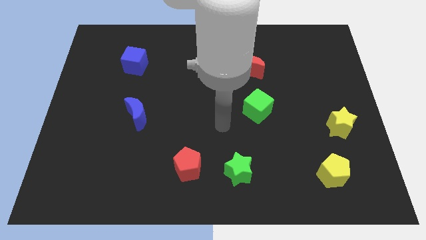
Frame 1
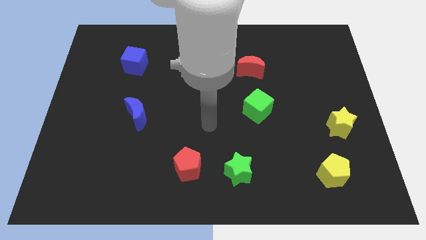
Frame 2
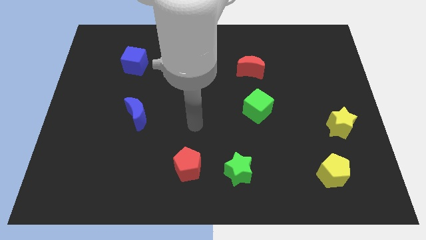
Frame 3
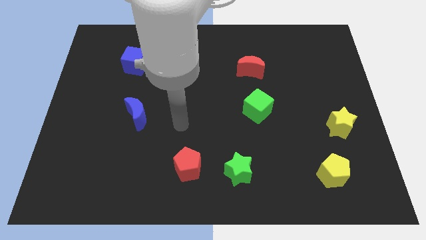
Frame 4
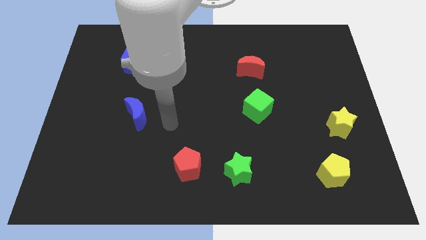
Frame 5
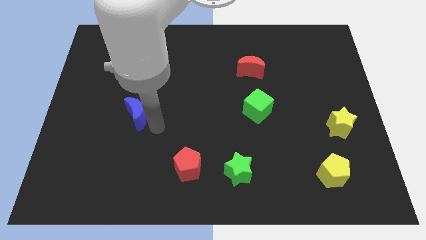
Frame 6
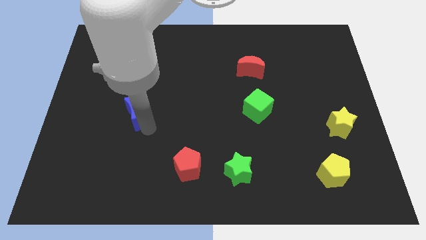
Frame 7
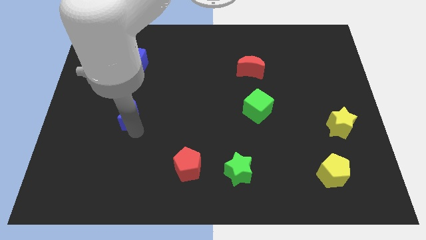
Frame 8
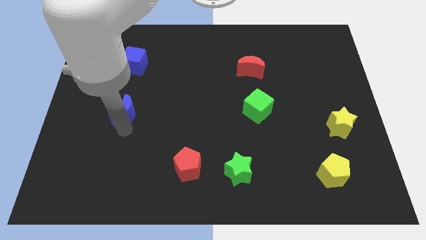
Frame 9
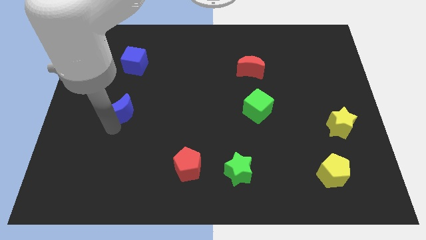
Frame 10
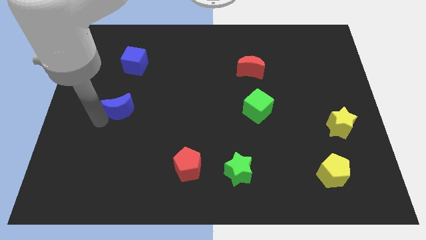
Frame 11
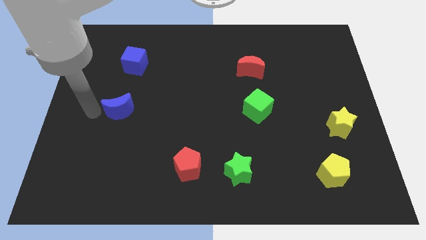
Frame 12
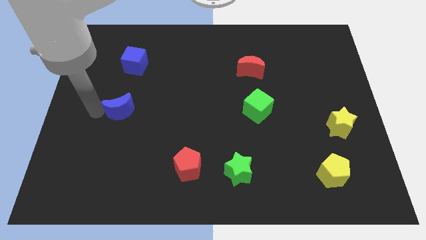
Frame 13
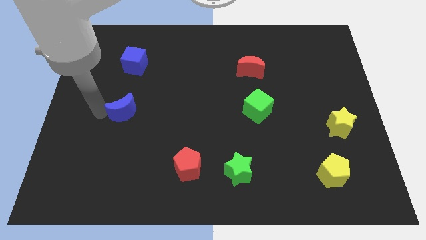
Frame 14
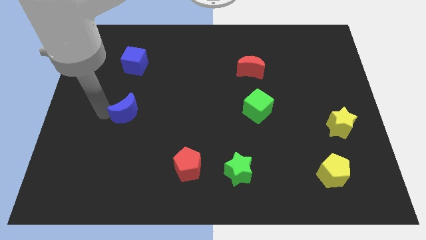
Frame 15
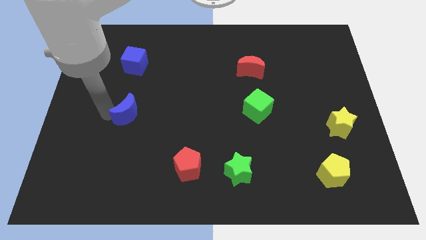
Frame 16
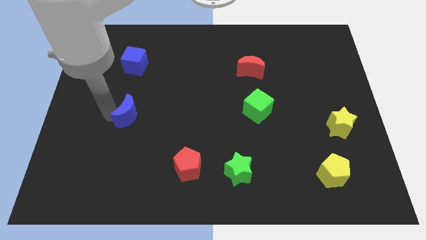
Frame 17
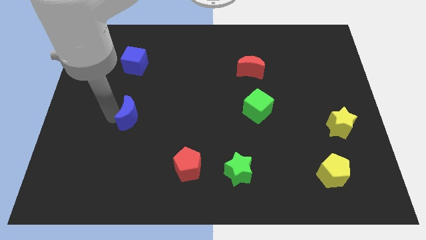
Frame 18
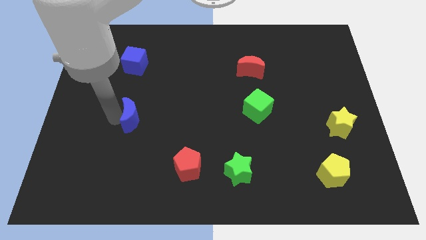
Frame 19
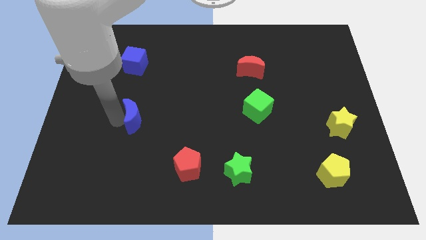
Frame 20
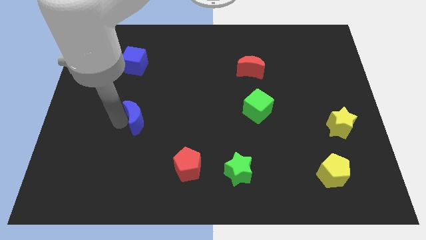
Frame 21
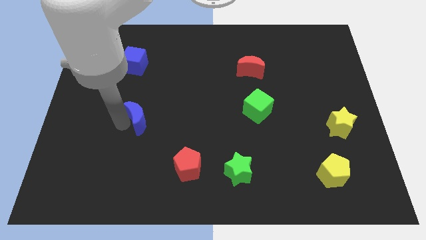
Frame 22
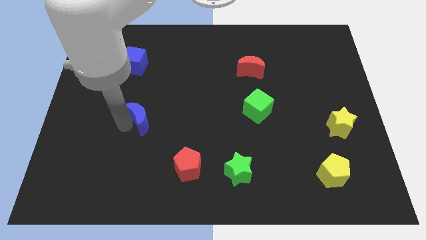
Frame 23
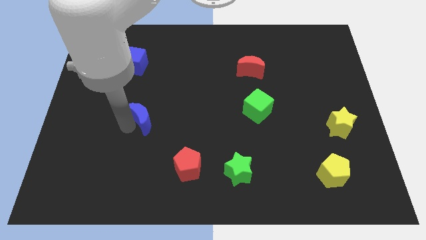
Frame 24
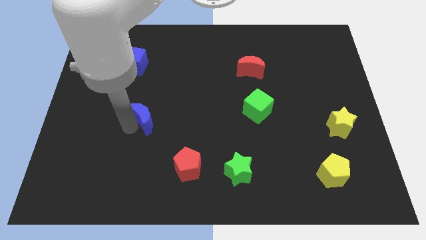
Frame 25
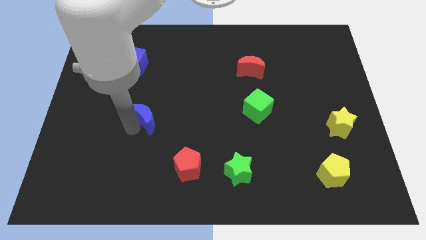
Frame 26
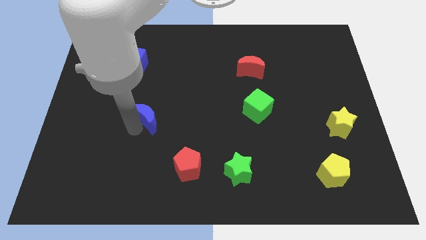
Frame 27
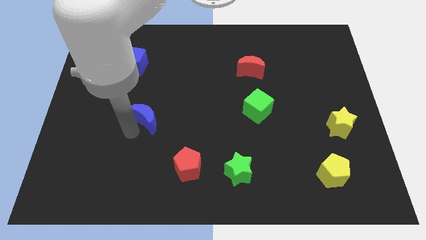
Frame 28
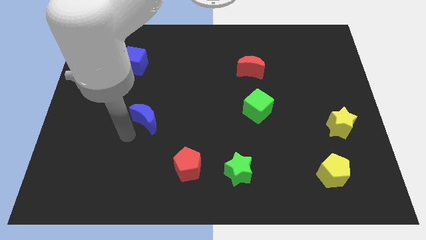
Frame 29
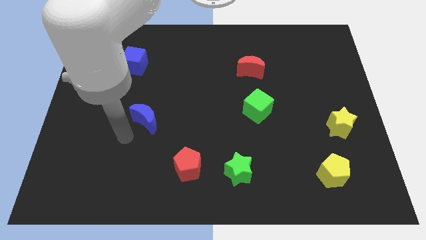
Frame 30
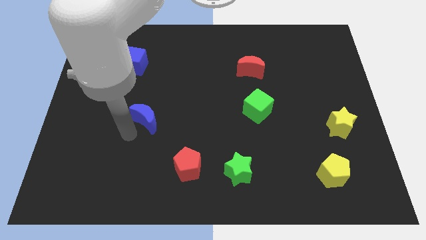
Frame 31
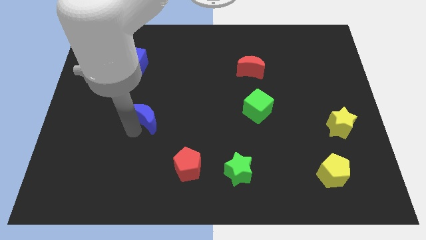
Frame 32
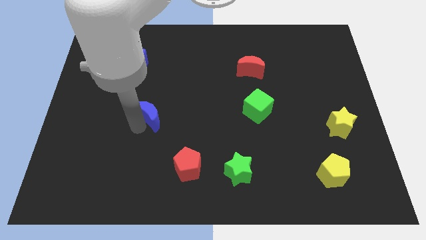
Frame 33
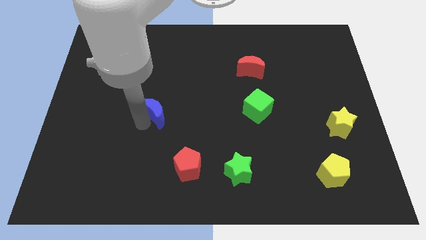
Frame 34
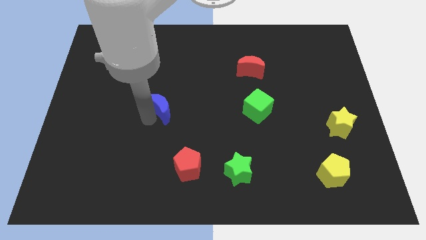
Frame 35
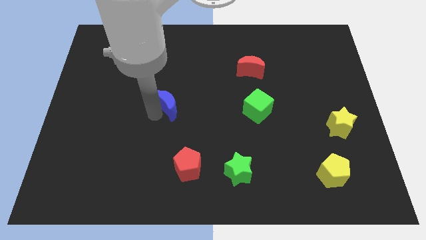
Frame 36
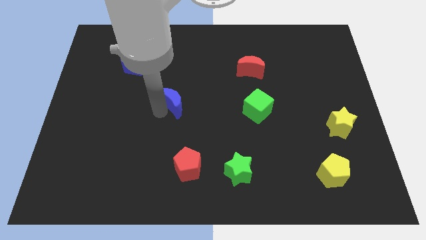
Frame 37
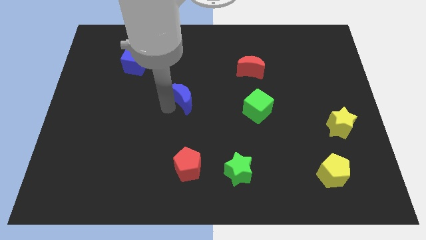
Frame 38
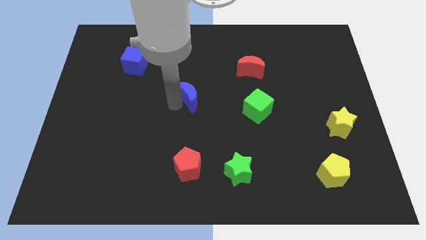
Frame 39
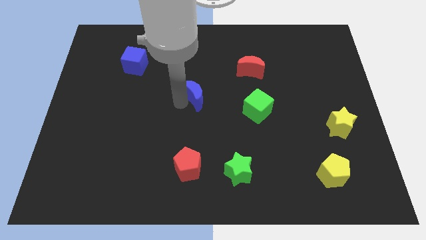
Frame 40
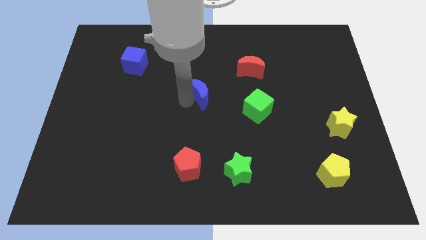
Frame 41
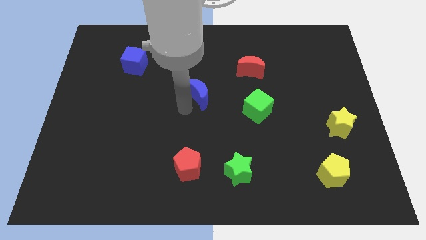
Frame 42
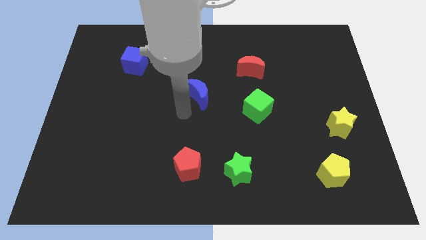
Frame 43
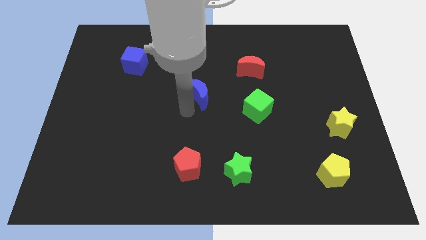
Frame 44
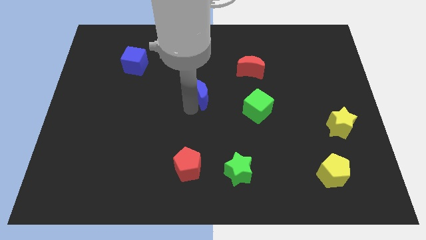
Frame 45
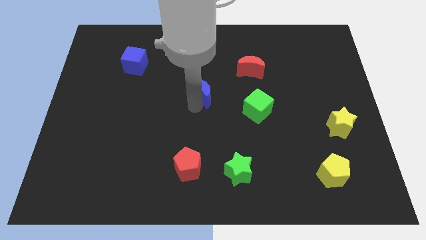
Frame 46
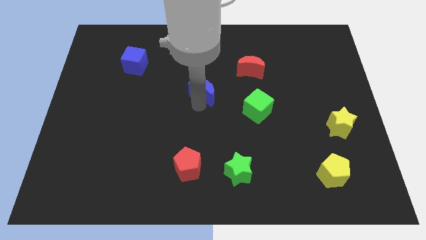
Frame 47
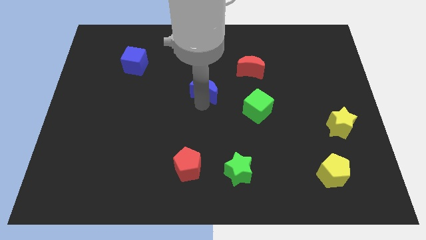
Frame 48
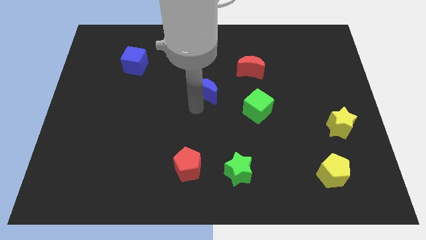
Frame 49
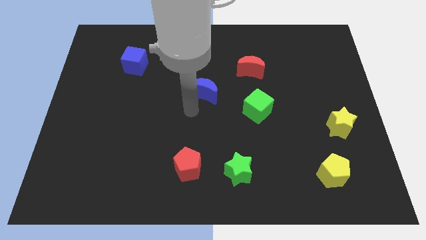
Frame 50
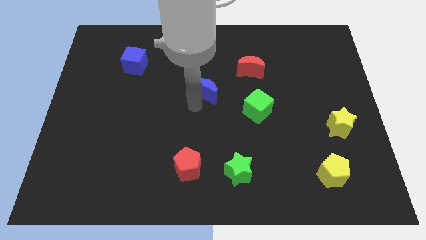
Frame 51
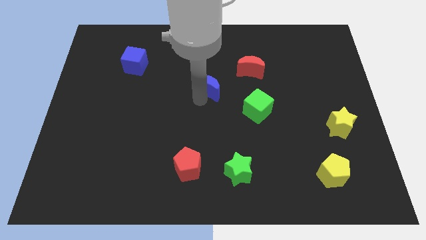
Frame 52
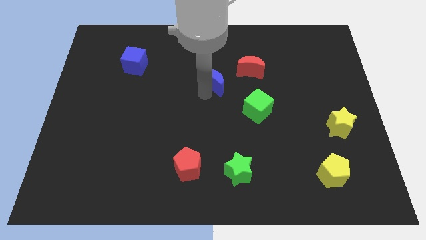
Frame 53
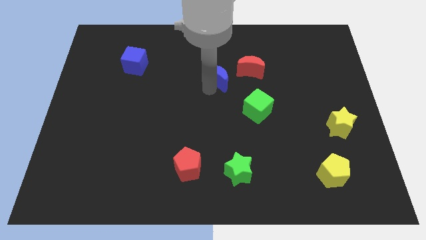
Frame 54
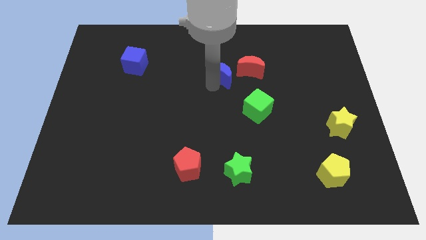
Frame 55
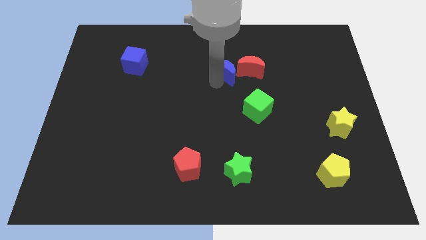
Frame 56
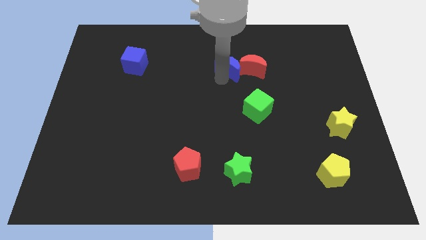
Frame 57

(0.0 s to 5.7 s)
put the blue moon to the top left of the red moon

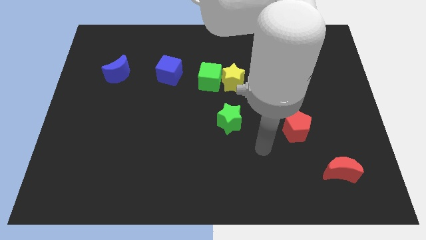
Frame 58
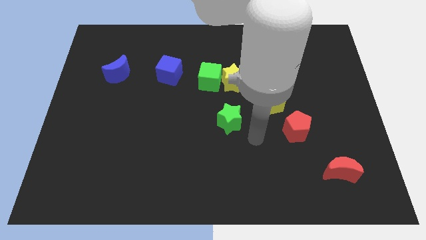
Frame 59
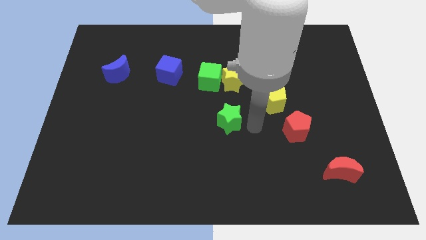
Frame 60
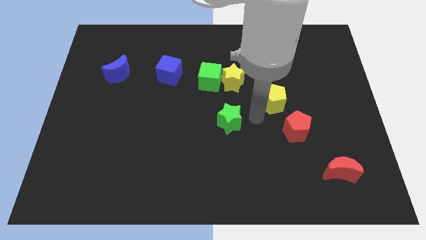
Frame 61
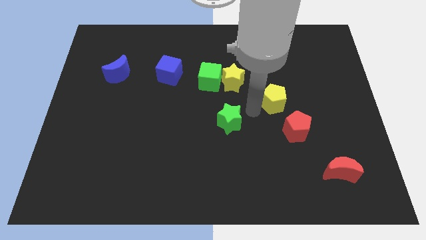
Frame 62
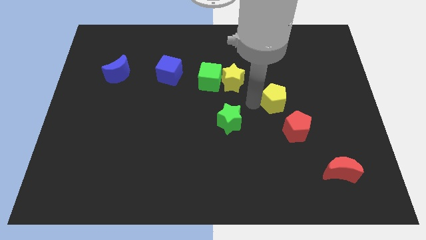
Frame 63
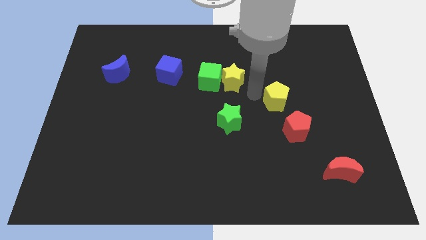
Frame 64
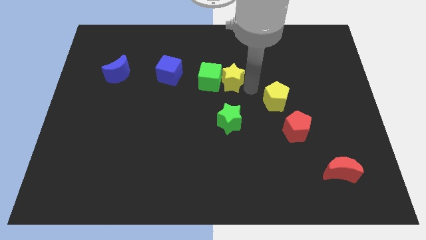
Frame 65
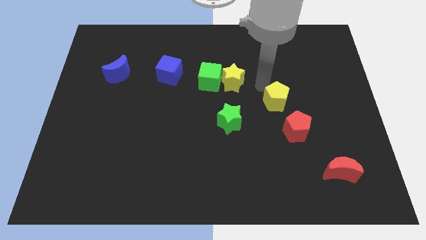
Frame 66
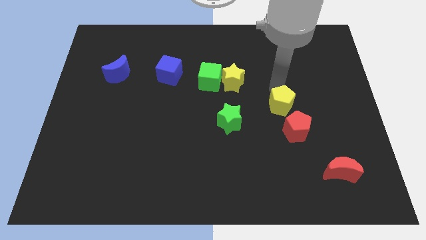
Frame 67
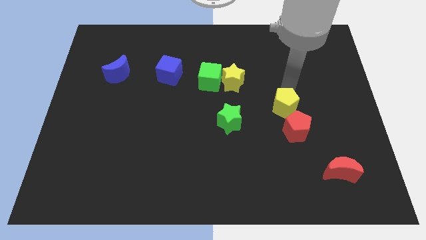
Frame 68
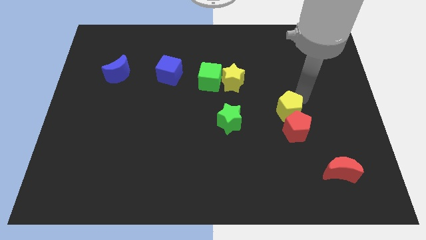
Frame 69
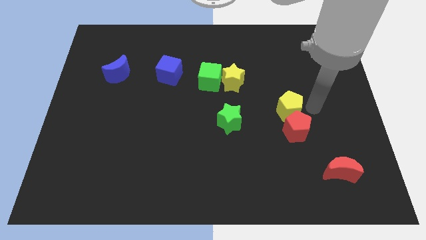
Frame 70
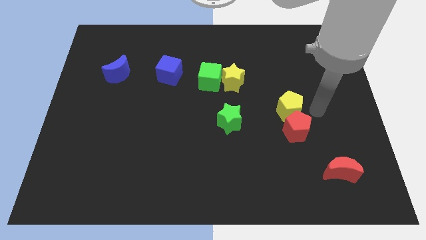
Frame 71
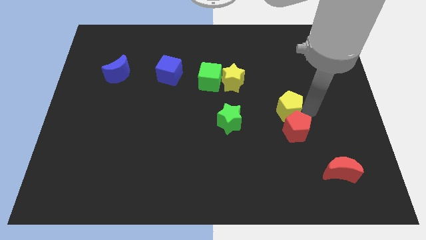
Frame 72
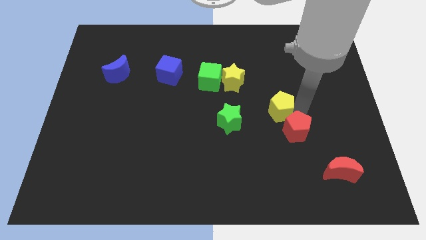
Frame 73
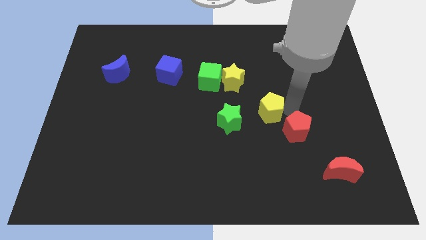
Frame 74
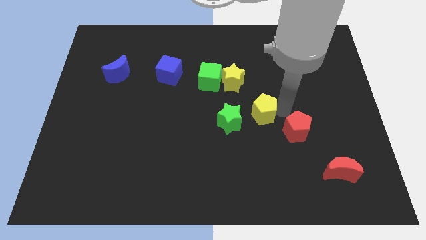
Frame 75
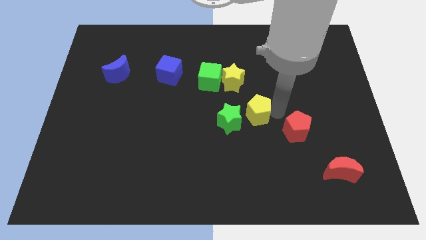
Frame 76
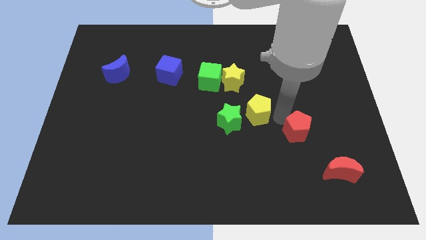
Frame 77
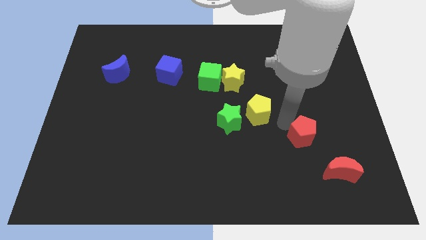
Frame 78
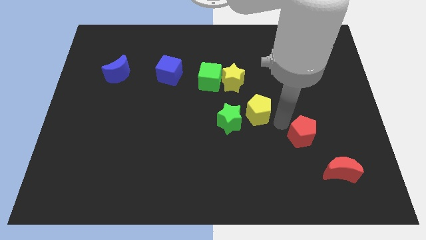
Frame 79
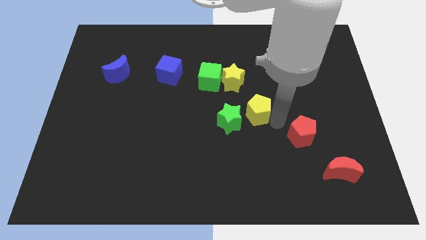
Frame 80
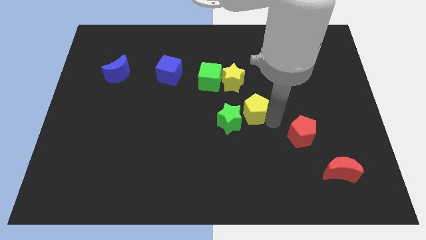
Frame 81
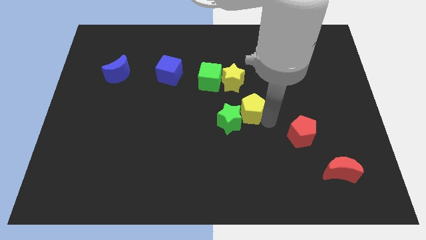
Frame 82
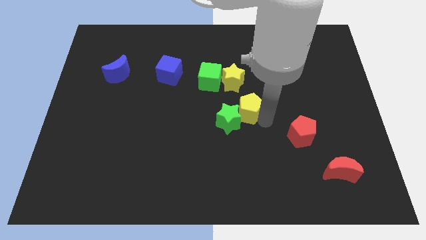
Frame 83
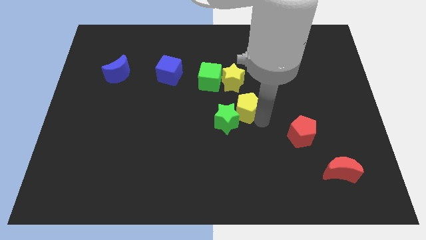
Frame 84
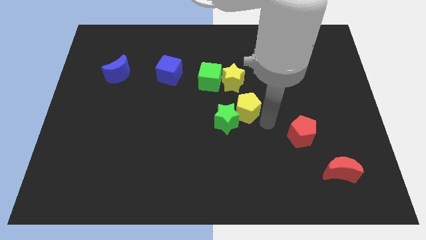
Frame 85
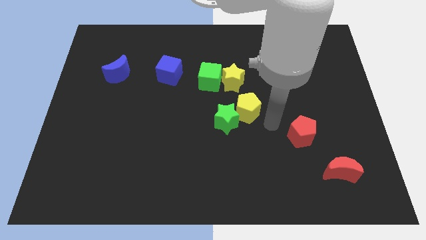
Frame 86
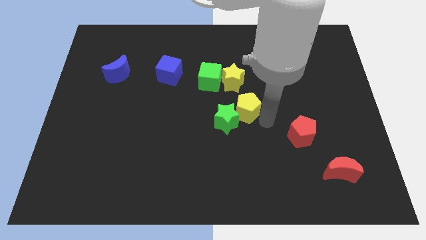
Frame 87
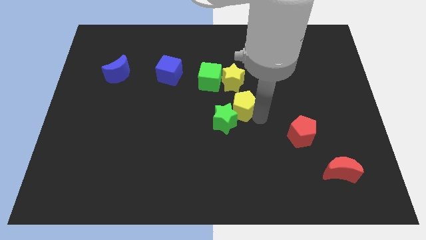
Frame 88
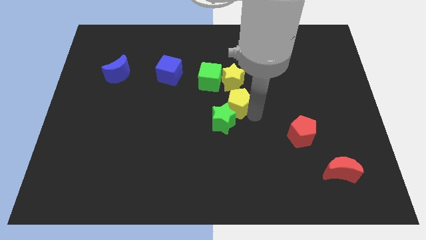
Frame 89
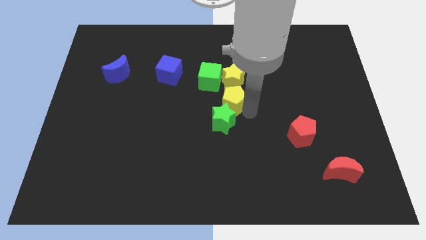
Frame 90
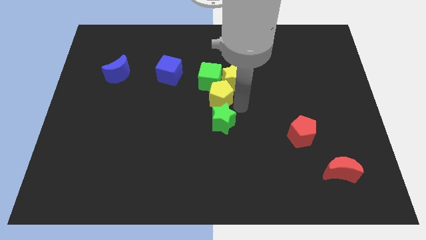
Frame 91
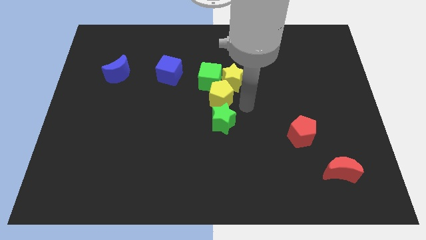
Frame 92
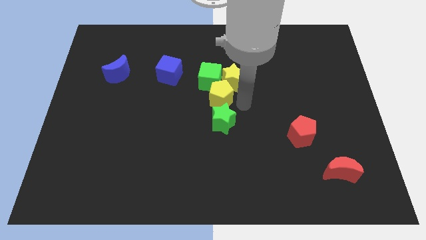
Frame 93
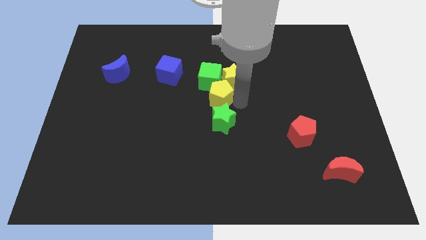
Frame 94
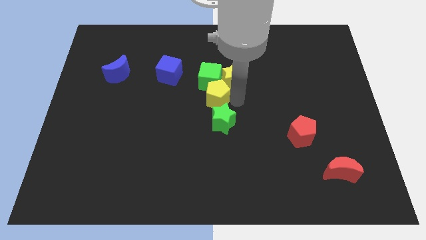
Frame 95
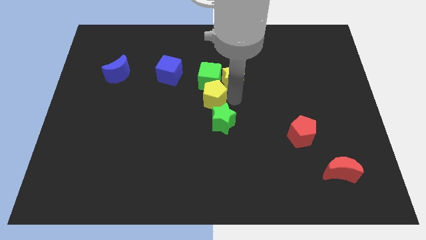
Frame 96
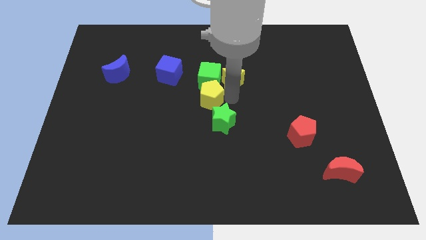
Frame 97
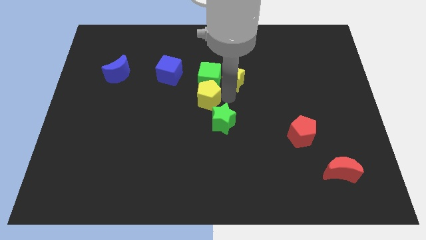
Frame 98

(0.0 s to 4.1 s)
slide the yellow pentagon to the bottom right side of the blue cube
